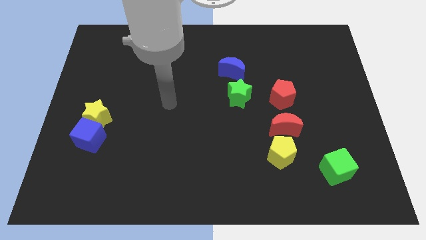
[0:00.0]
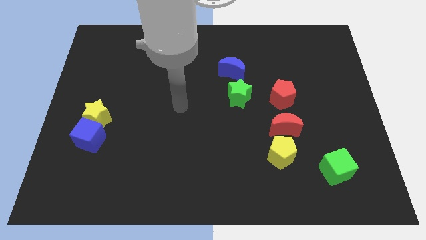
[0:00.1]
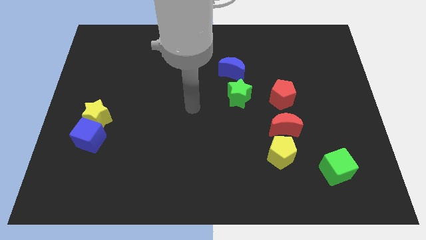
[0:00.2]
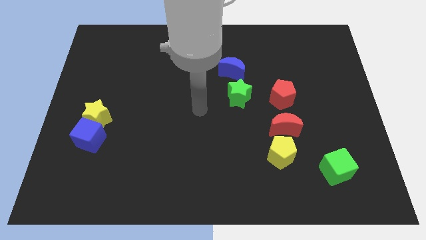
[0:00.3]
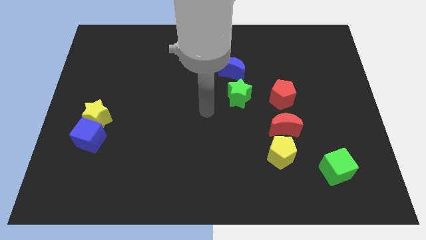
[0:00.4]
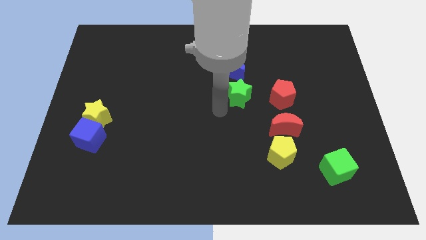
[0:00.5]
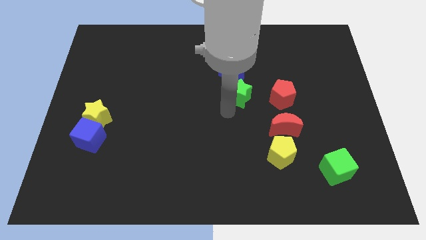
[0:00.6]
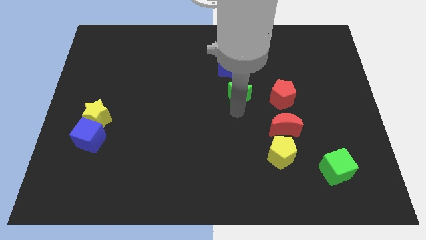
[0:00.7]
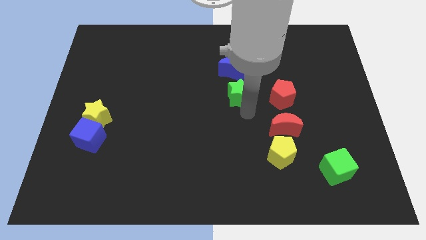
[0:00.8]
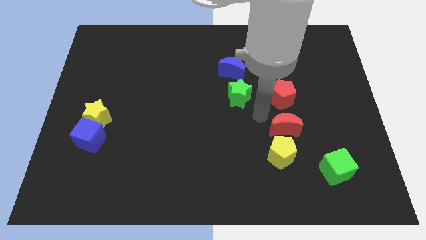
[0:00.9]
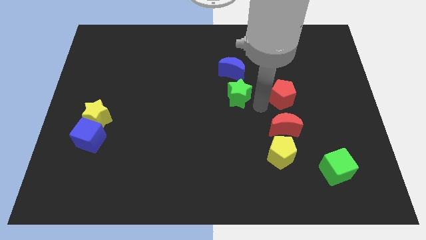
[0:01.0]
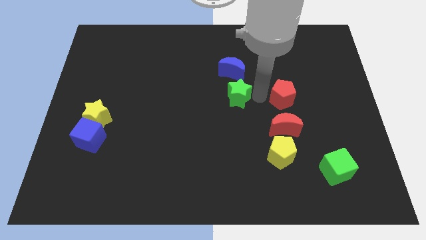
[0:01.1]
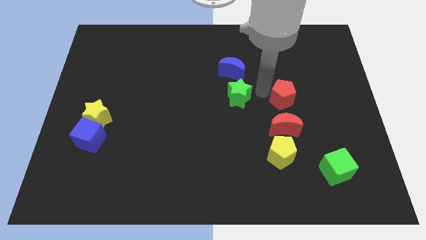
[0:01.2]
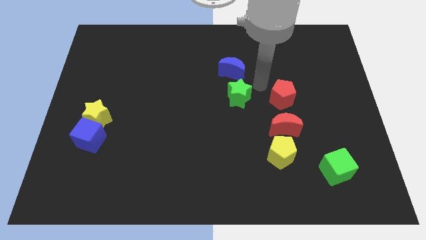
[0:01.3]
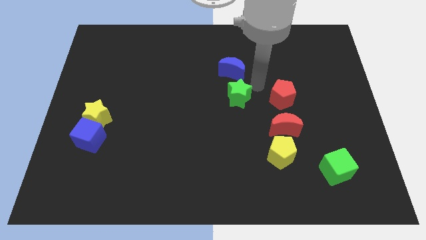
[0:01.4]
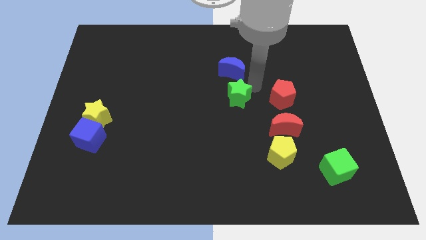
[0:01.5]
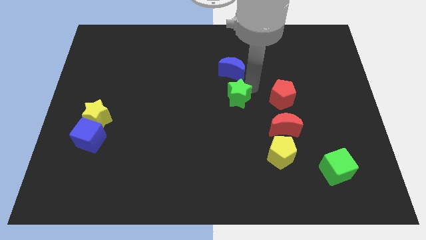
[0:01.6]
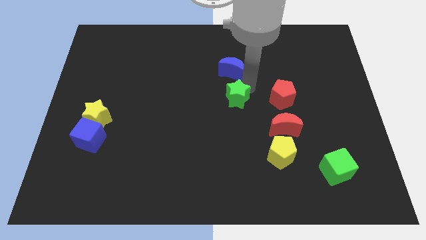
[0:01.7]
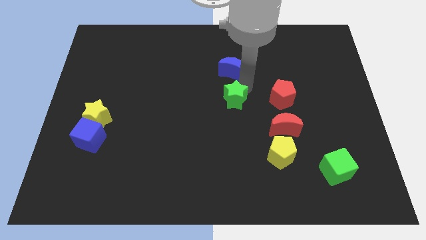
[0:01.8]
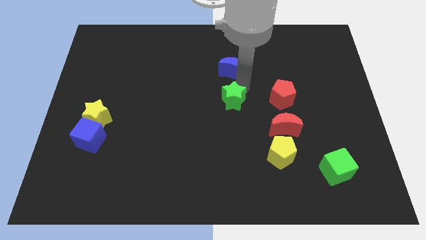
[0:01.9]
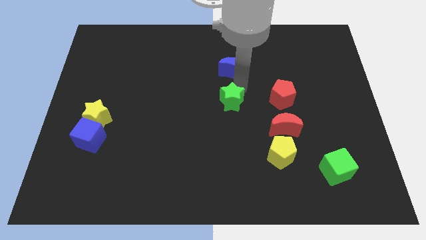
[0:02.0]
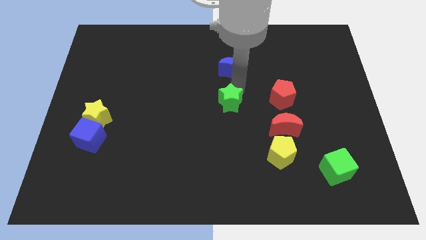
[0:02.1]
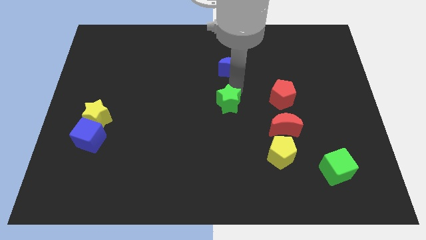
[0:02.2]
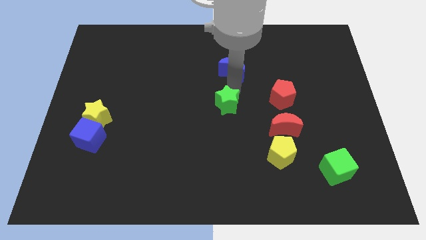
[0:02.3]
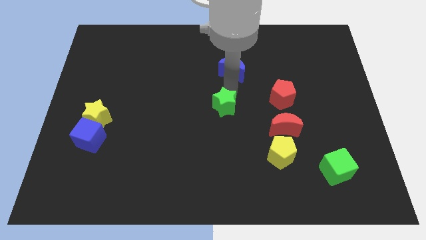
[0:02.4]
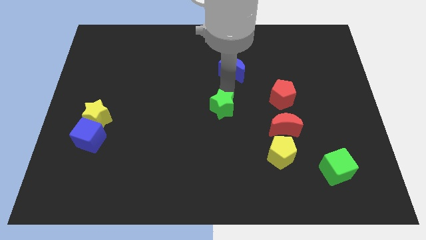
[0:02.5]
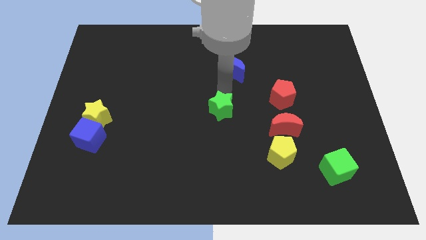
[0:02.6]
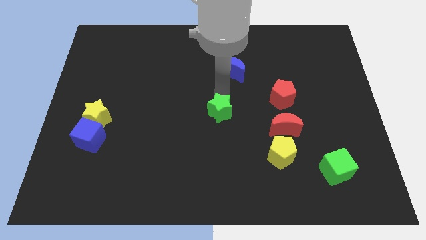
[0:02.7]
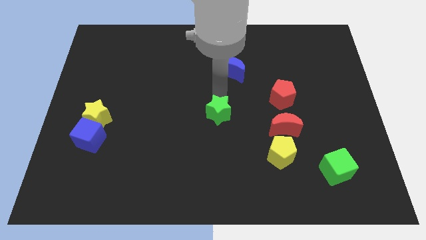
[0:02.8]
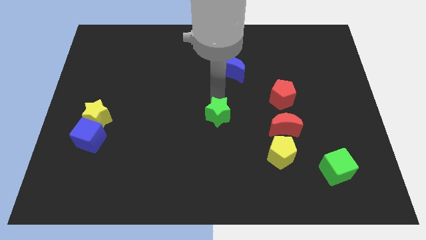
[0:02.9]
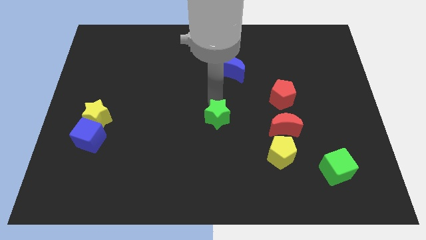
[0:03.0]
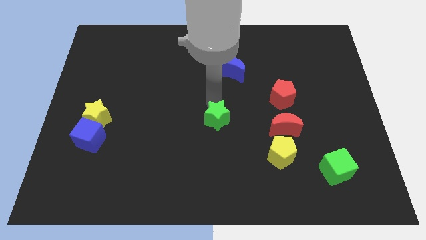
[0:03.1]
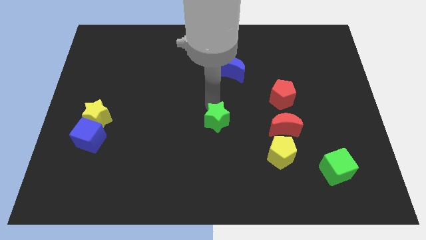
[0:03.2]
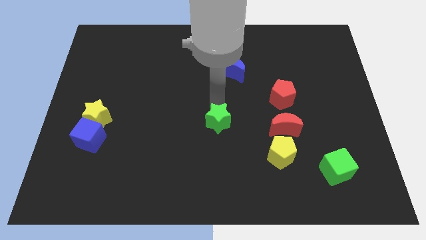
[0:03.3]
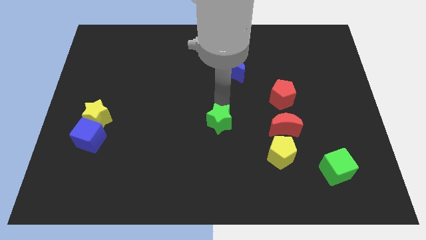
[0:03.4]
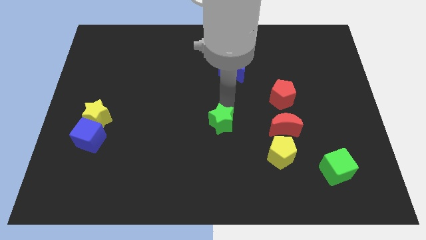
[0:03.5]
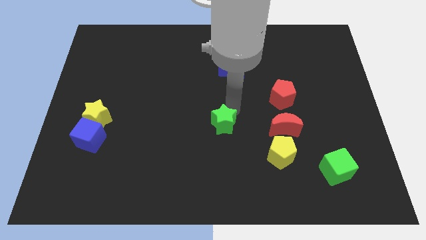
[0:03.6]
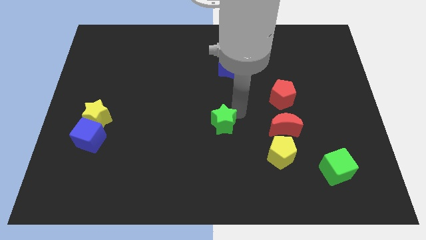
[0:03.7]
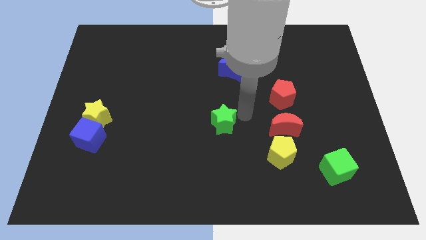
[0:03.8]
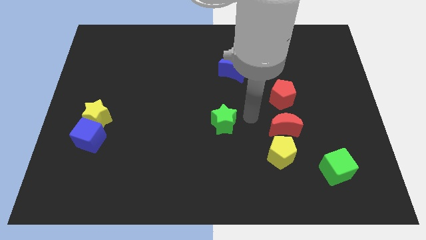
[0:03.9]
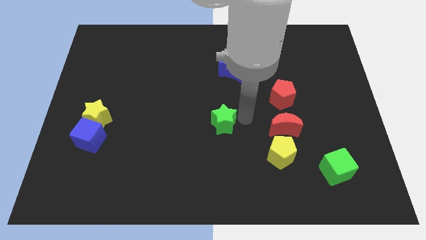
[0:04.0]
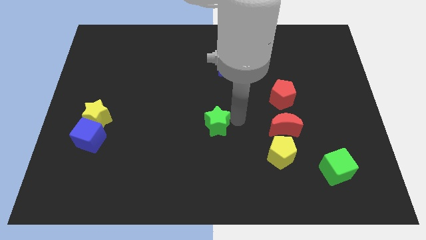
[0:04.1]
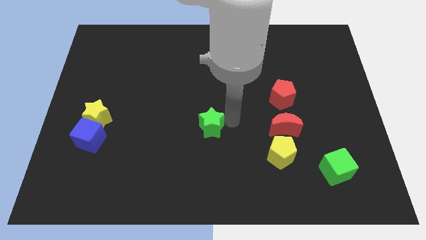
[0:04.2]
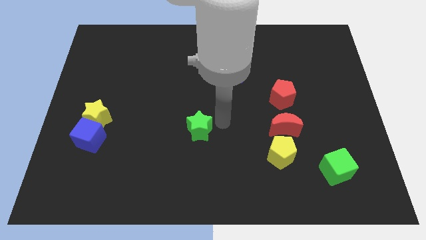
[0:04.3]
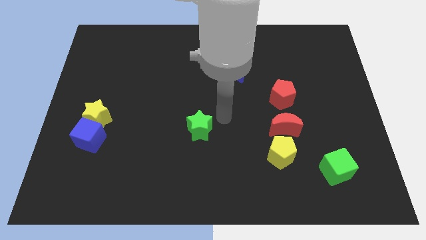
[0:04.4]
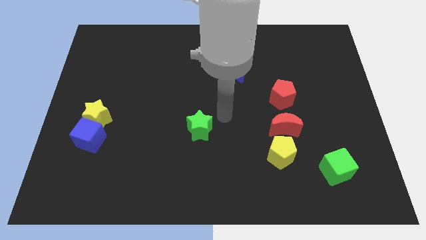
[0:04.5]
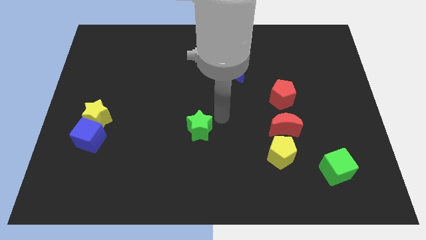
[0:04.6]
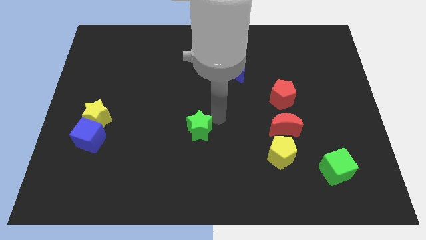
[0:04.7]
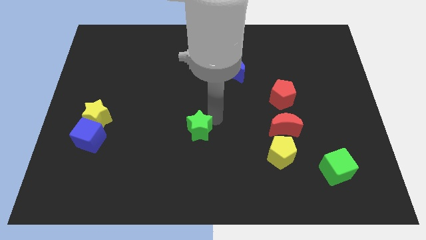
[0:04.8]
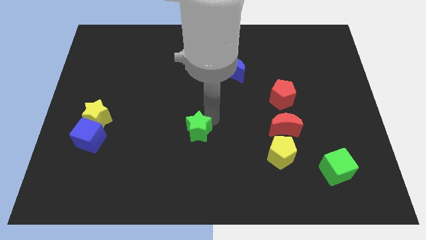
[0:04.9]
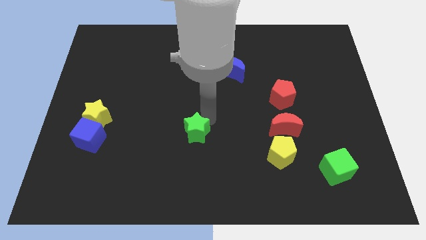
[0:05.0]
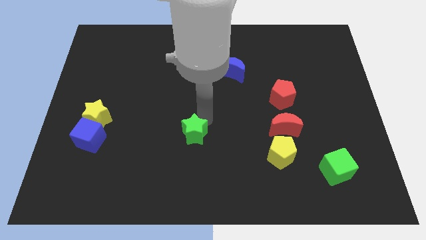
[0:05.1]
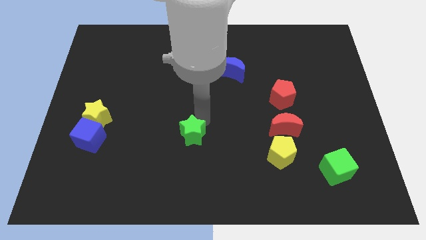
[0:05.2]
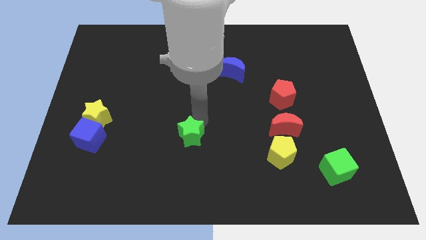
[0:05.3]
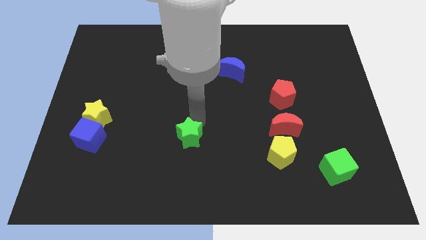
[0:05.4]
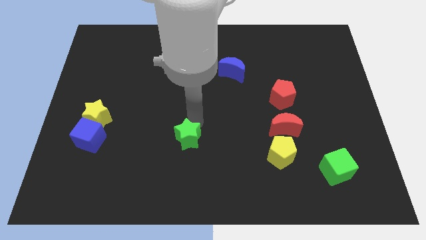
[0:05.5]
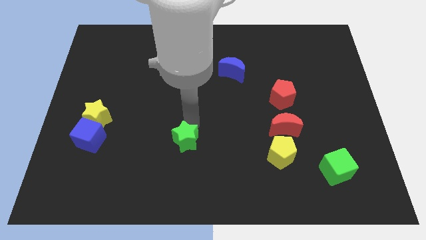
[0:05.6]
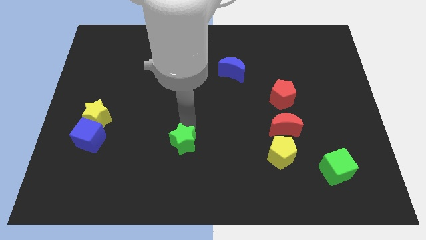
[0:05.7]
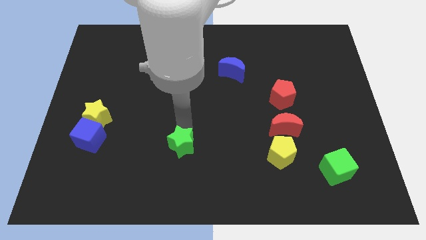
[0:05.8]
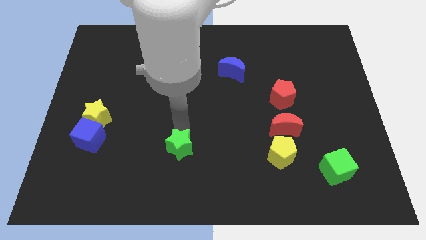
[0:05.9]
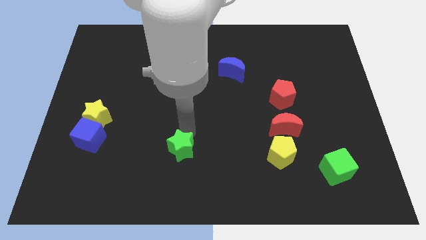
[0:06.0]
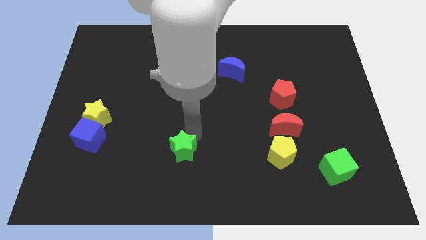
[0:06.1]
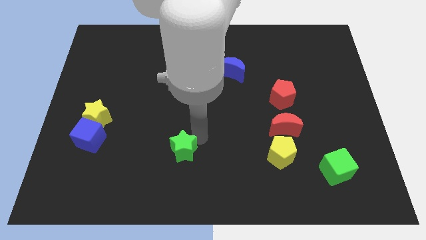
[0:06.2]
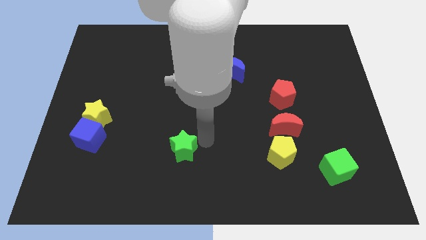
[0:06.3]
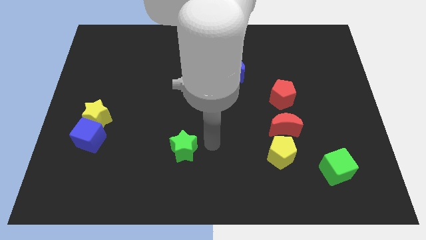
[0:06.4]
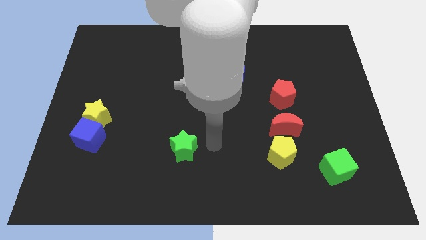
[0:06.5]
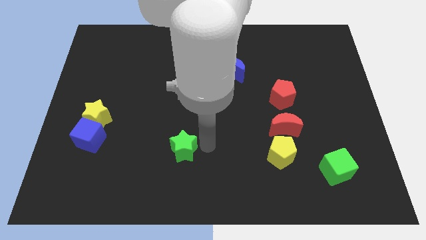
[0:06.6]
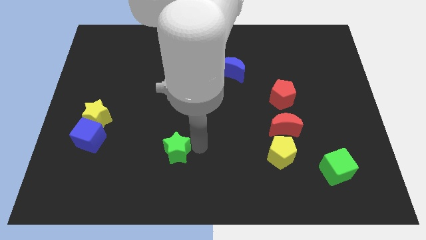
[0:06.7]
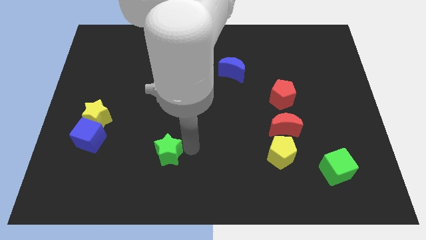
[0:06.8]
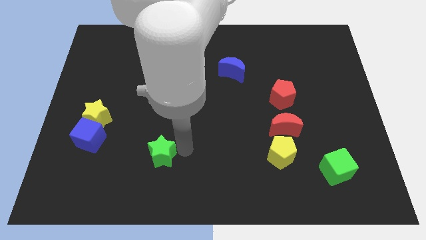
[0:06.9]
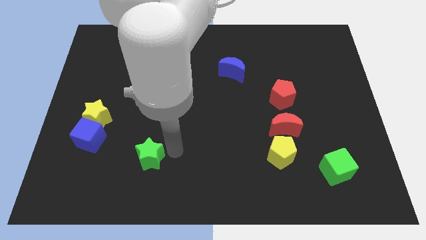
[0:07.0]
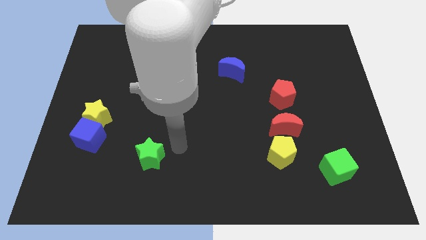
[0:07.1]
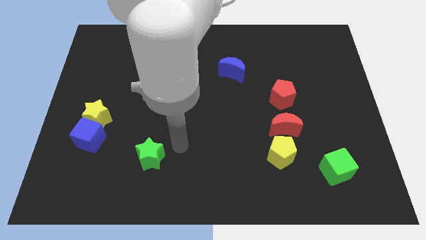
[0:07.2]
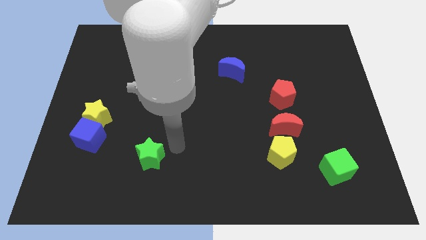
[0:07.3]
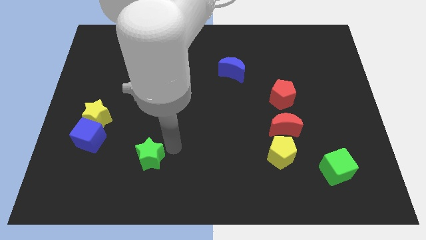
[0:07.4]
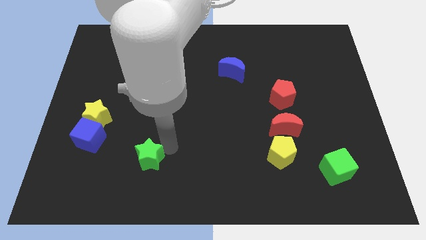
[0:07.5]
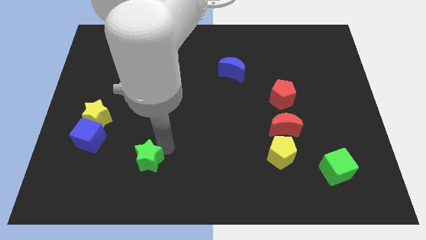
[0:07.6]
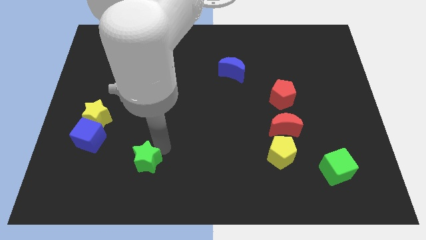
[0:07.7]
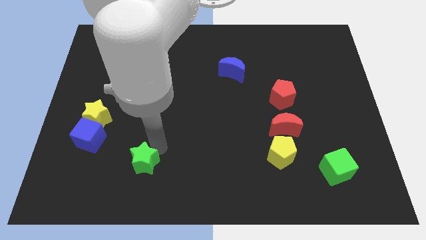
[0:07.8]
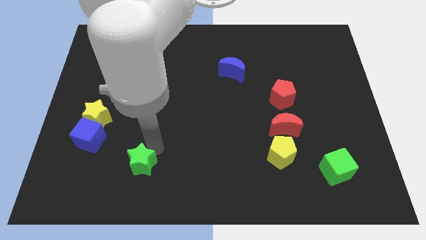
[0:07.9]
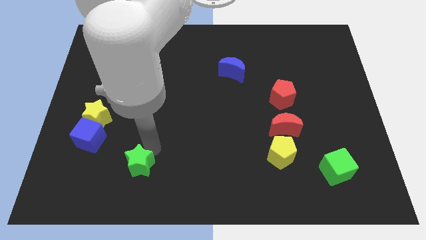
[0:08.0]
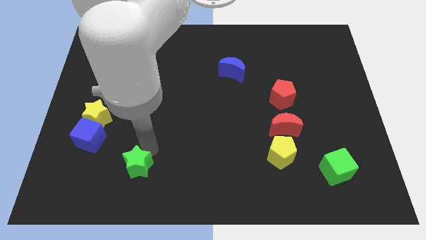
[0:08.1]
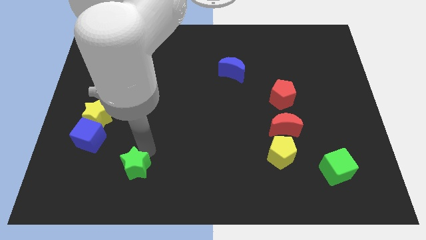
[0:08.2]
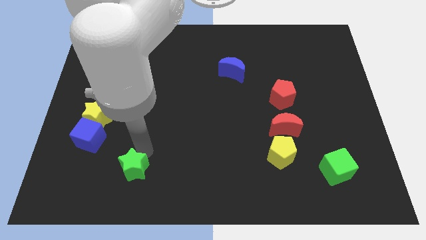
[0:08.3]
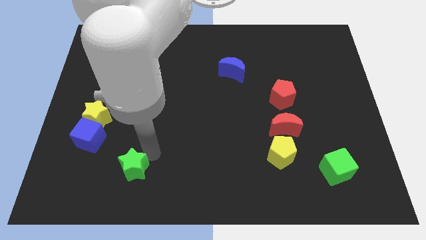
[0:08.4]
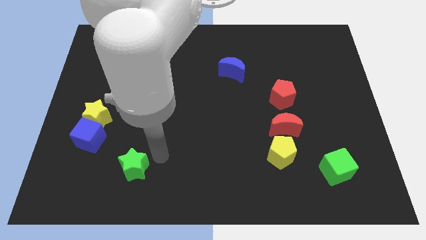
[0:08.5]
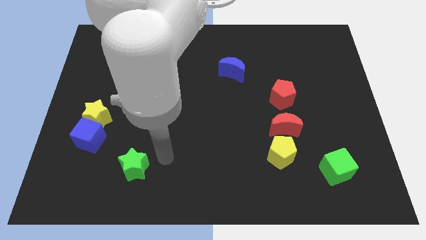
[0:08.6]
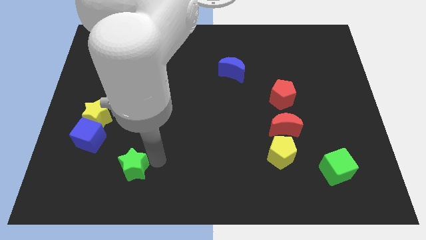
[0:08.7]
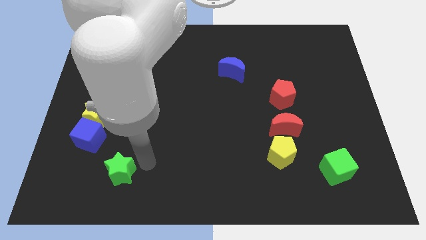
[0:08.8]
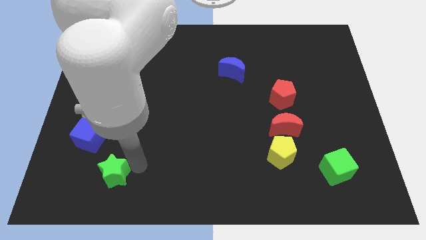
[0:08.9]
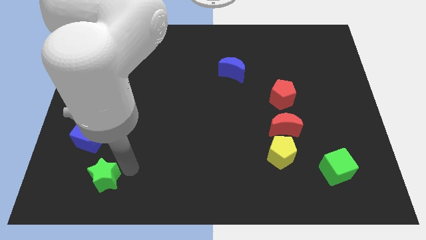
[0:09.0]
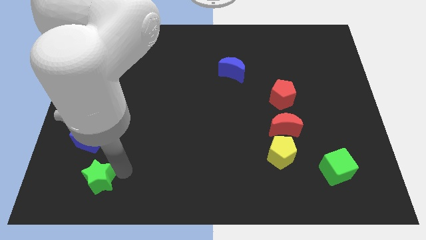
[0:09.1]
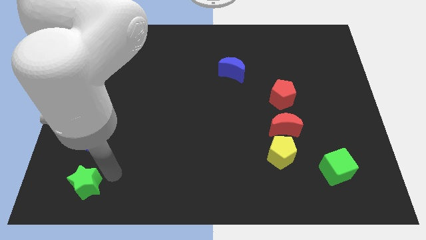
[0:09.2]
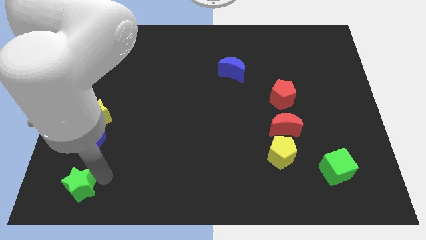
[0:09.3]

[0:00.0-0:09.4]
move the green star to the bottom left of the board
